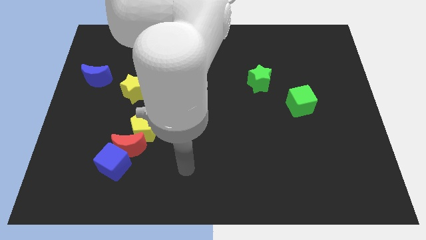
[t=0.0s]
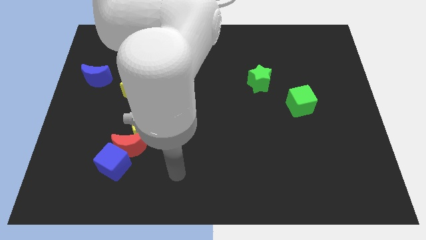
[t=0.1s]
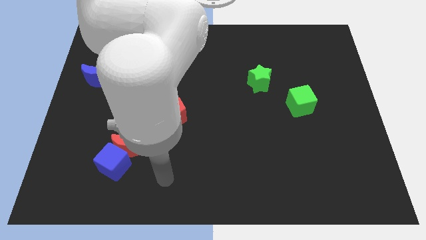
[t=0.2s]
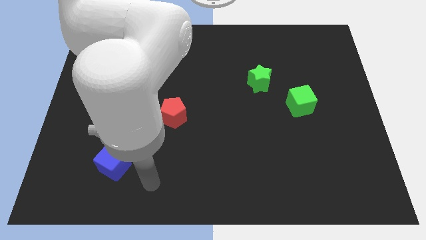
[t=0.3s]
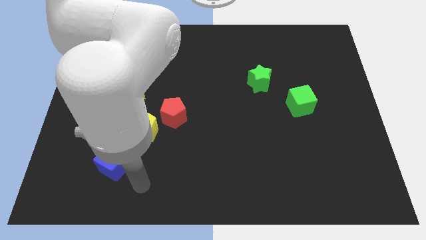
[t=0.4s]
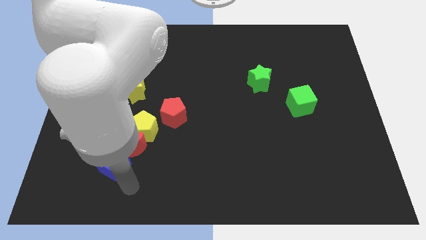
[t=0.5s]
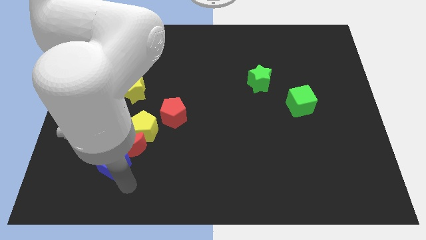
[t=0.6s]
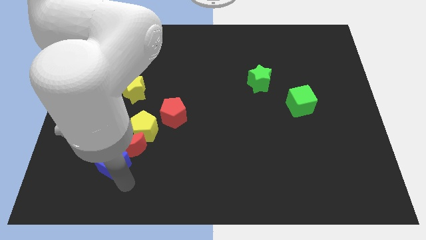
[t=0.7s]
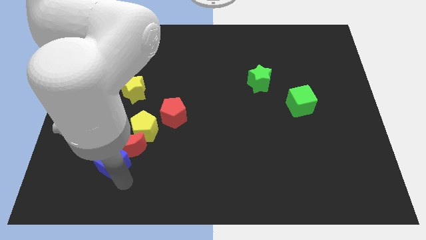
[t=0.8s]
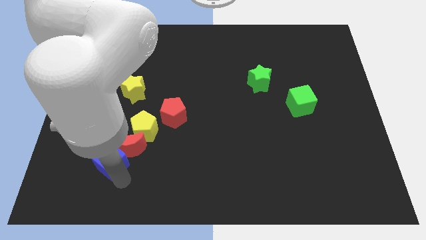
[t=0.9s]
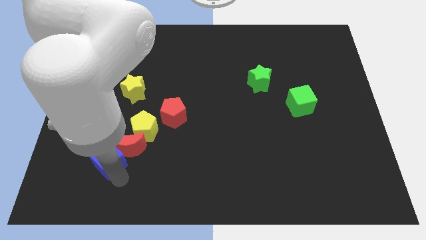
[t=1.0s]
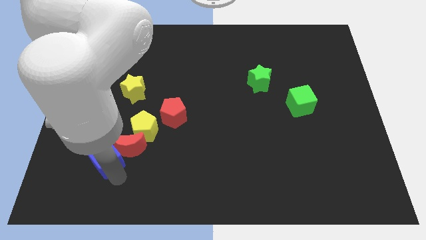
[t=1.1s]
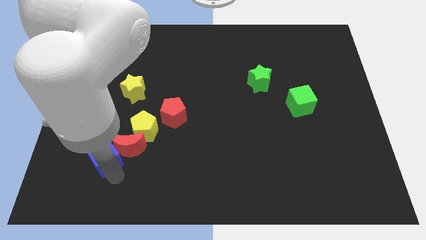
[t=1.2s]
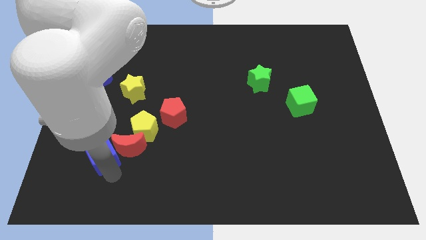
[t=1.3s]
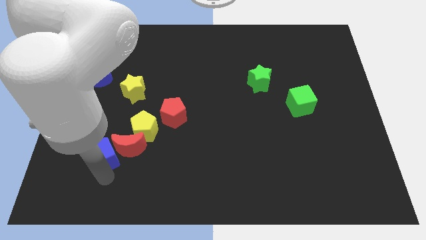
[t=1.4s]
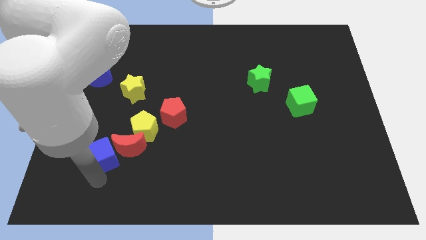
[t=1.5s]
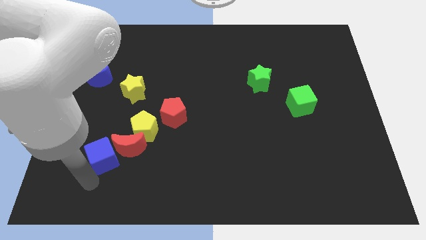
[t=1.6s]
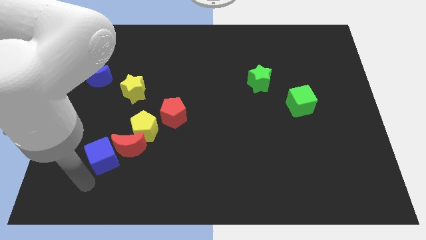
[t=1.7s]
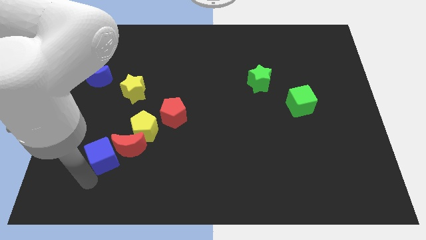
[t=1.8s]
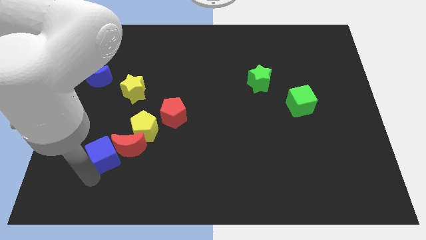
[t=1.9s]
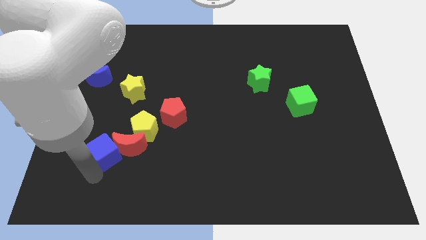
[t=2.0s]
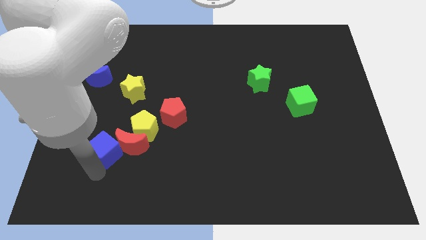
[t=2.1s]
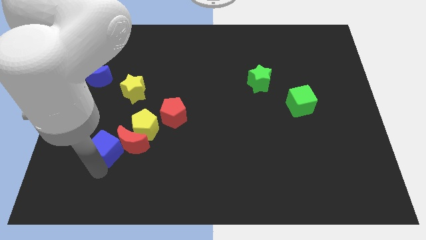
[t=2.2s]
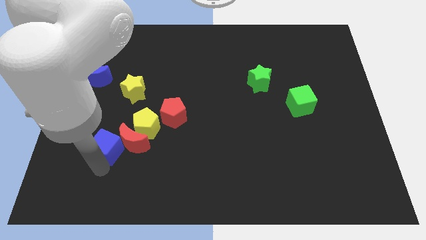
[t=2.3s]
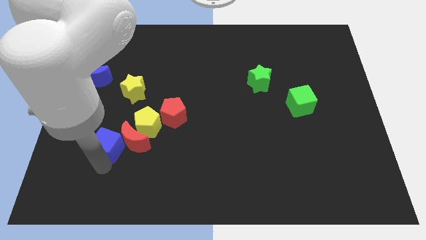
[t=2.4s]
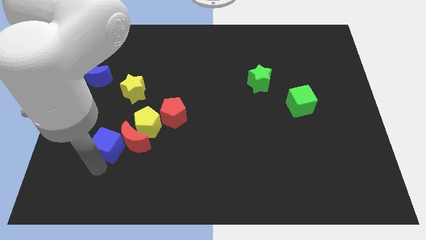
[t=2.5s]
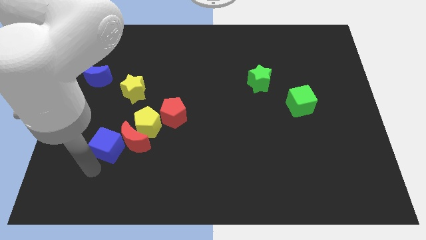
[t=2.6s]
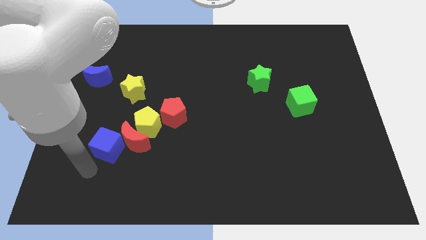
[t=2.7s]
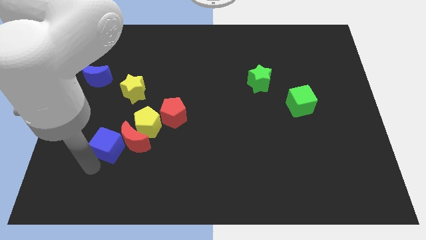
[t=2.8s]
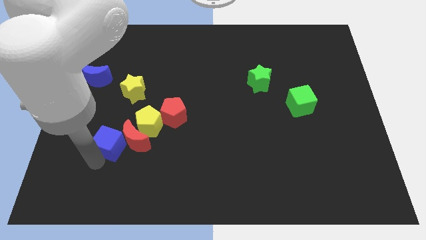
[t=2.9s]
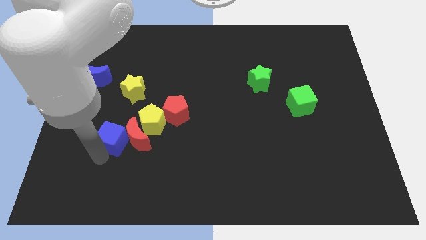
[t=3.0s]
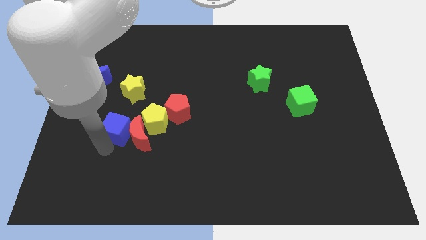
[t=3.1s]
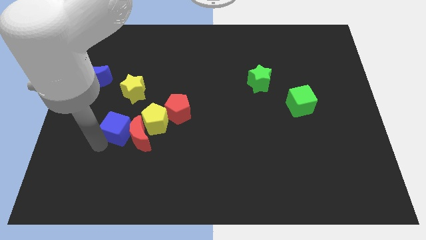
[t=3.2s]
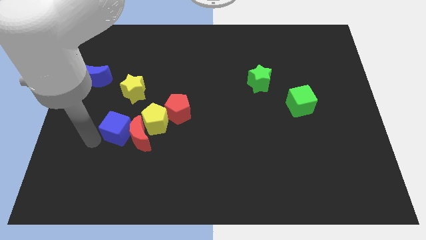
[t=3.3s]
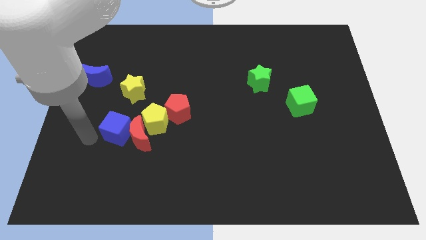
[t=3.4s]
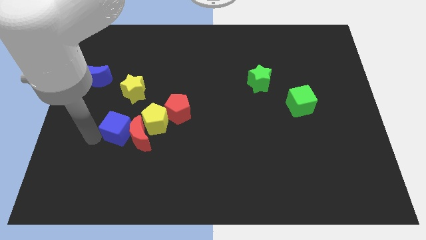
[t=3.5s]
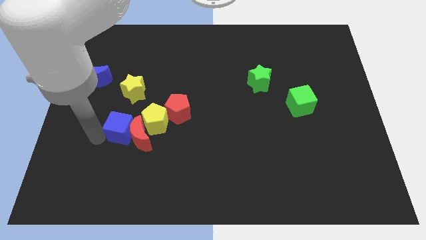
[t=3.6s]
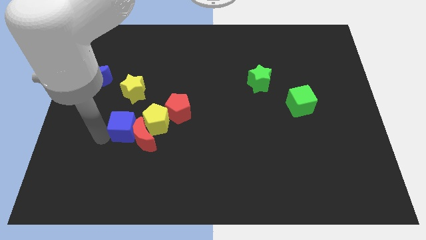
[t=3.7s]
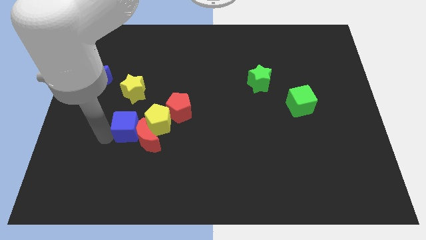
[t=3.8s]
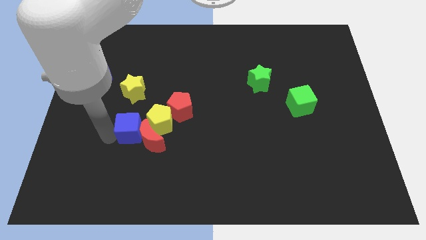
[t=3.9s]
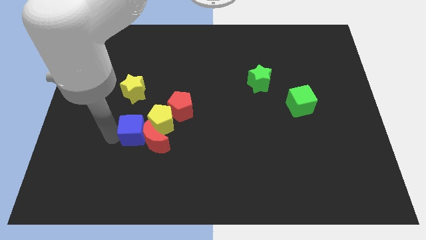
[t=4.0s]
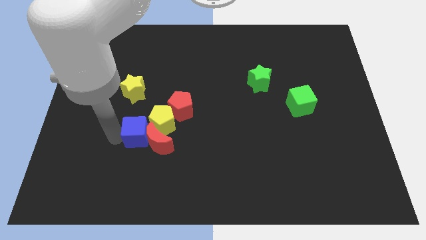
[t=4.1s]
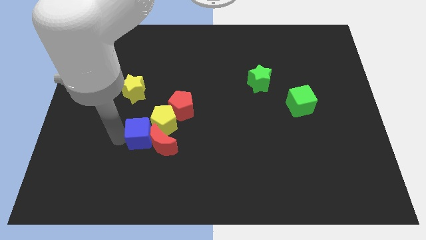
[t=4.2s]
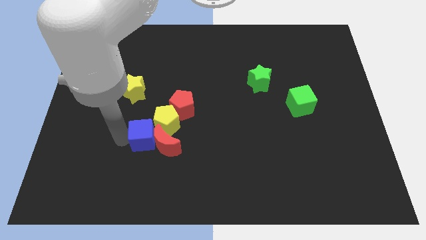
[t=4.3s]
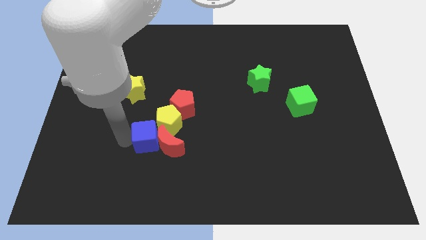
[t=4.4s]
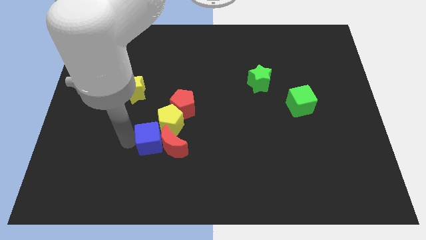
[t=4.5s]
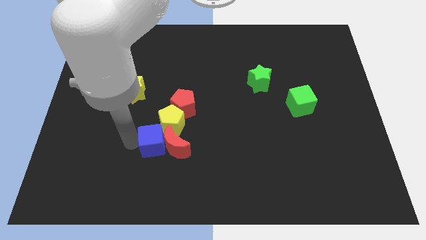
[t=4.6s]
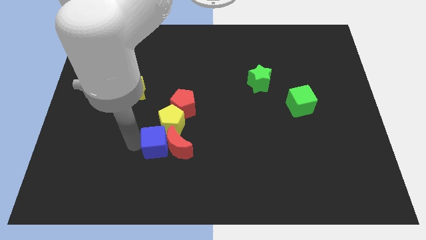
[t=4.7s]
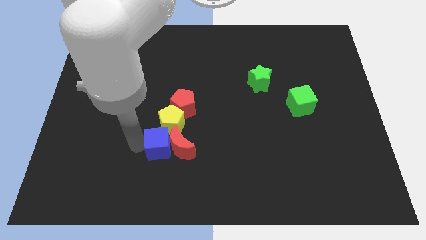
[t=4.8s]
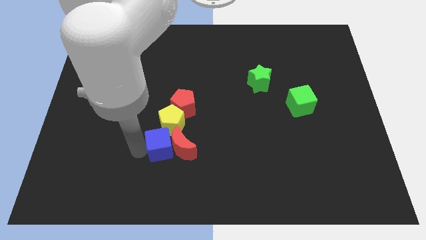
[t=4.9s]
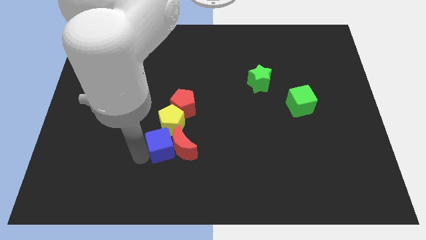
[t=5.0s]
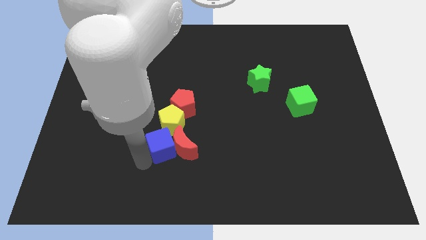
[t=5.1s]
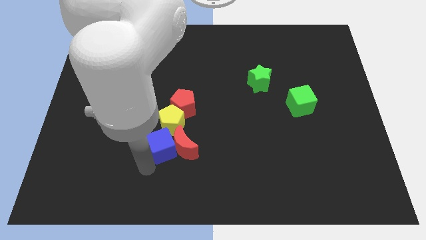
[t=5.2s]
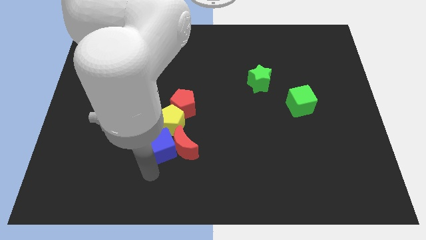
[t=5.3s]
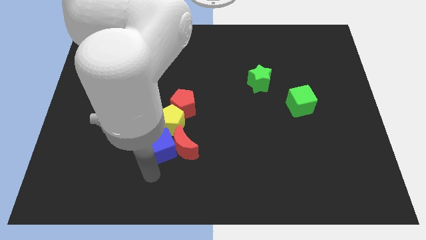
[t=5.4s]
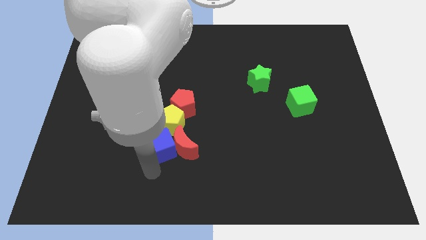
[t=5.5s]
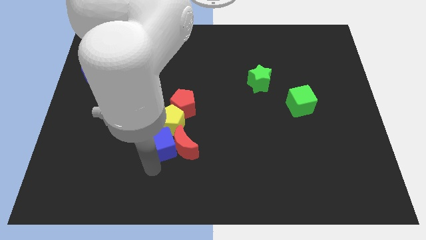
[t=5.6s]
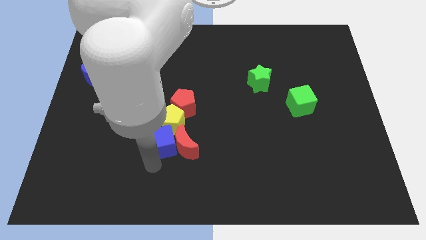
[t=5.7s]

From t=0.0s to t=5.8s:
move the blue cube next to the yellow pentagon

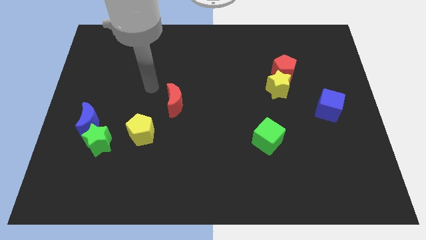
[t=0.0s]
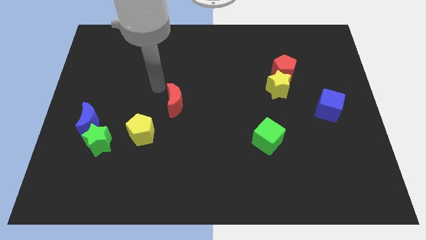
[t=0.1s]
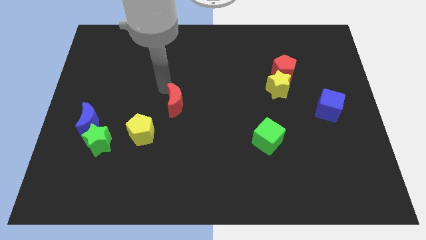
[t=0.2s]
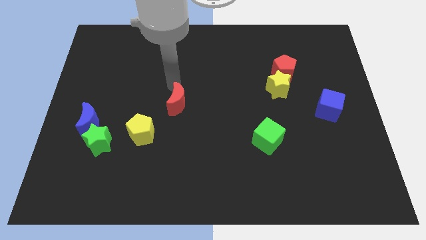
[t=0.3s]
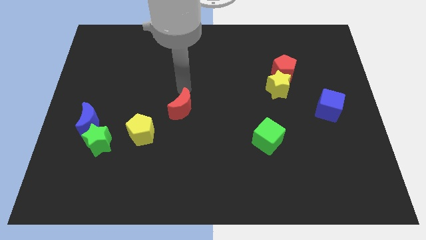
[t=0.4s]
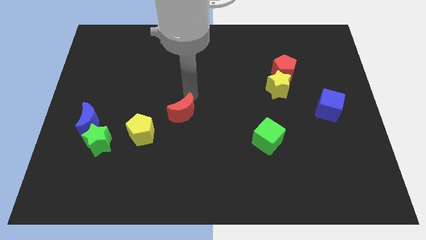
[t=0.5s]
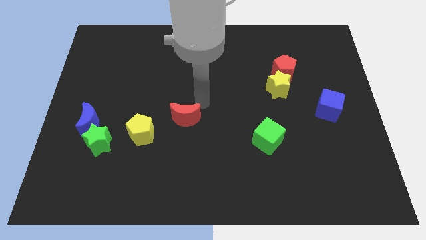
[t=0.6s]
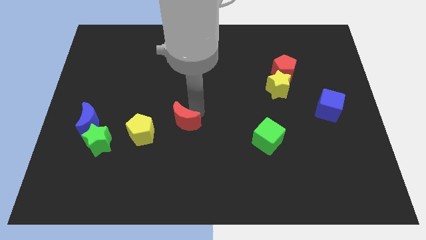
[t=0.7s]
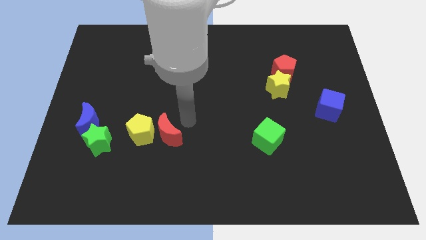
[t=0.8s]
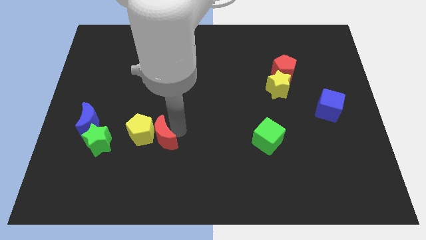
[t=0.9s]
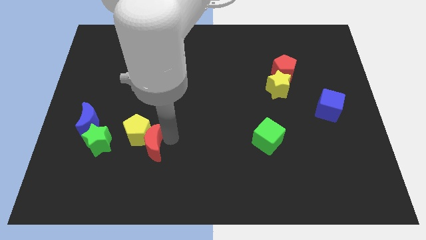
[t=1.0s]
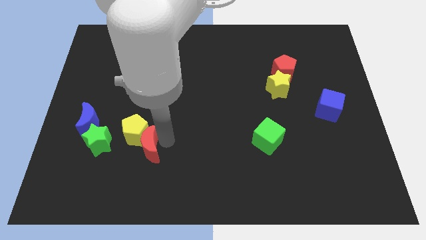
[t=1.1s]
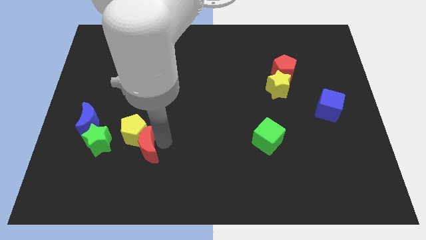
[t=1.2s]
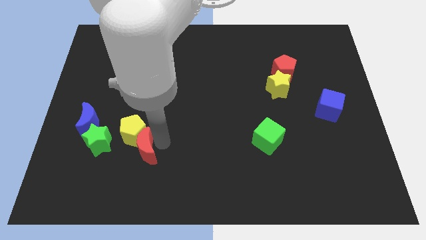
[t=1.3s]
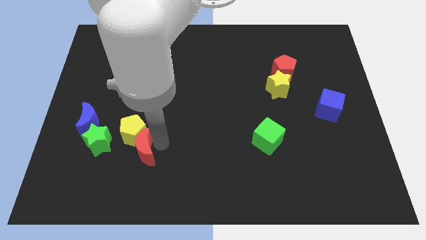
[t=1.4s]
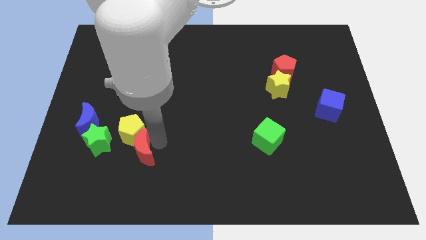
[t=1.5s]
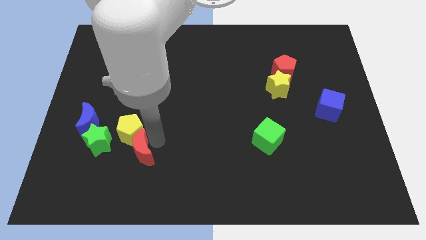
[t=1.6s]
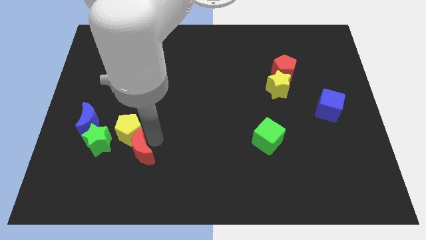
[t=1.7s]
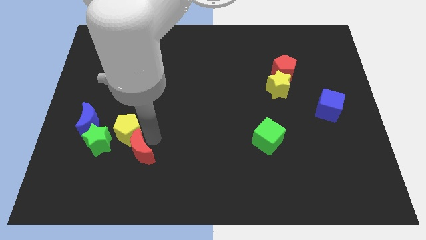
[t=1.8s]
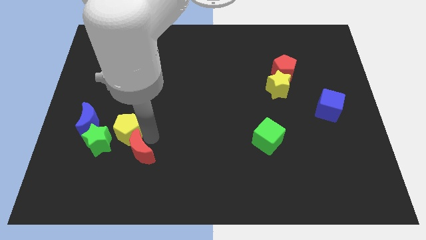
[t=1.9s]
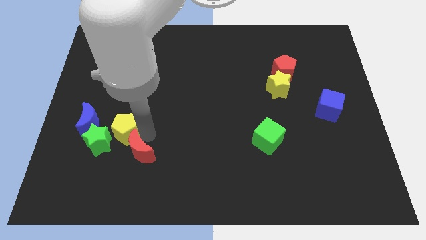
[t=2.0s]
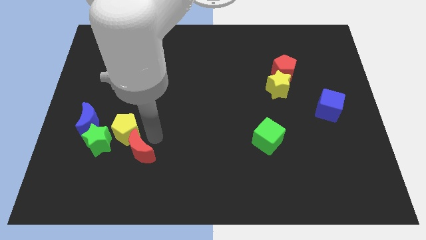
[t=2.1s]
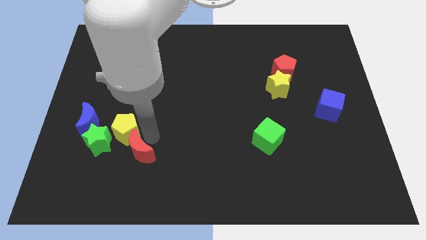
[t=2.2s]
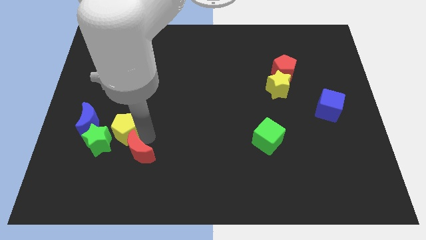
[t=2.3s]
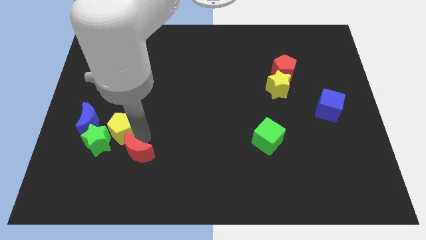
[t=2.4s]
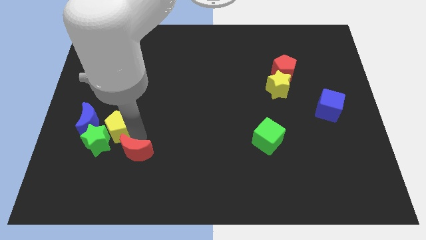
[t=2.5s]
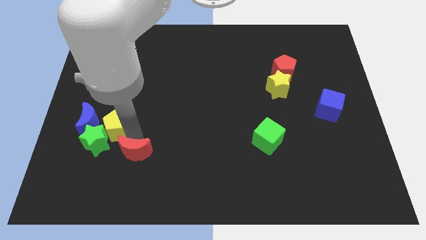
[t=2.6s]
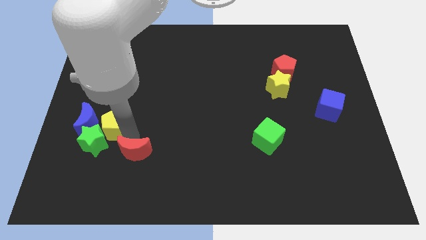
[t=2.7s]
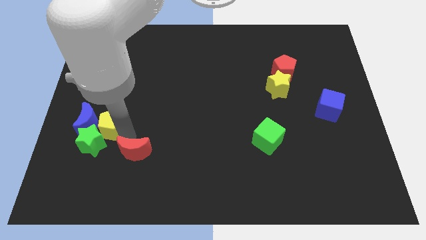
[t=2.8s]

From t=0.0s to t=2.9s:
put the yellow pentagon close to the blue moon
